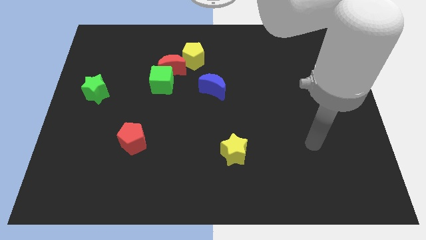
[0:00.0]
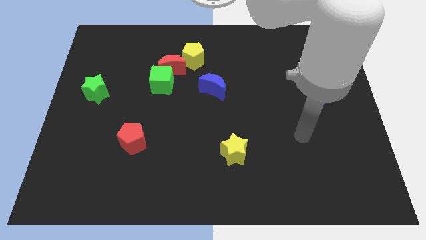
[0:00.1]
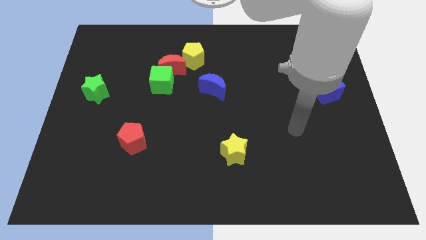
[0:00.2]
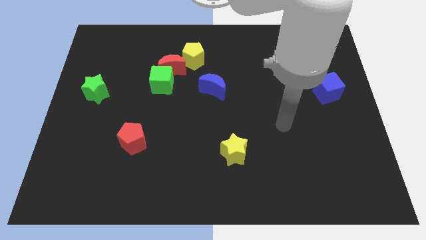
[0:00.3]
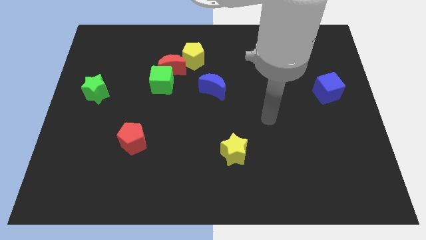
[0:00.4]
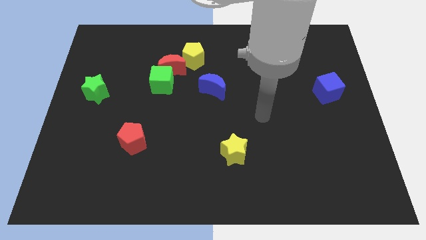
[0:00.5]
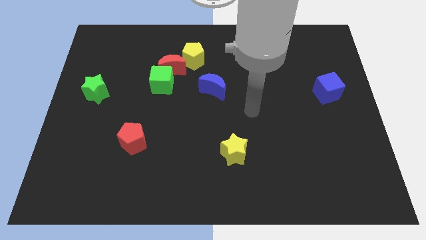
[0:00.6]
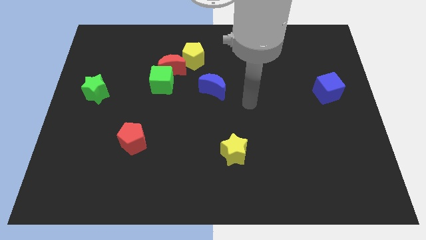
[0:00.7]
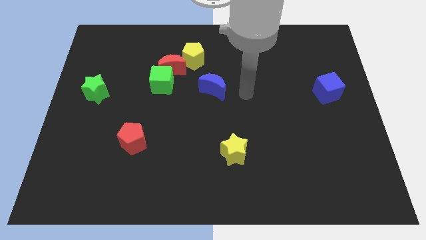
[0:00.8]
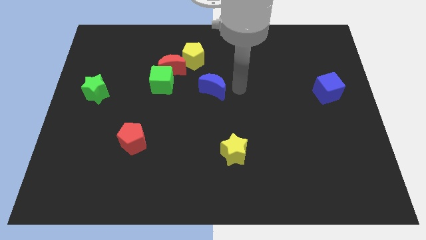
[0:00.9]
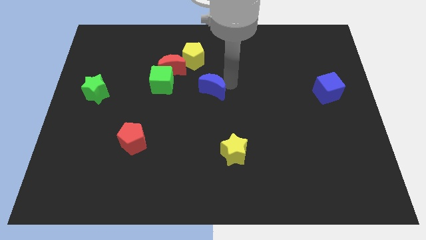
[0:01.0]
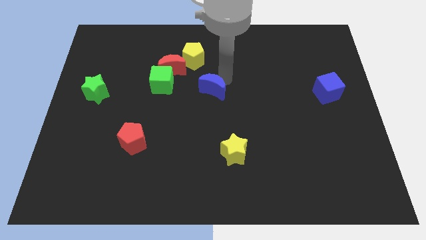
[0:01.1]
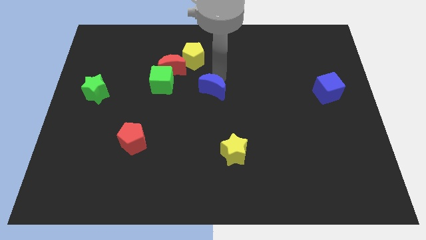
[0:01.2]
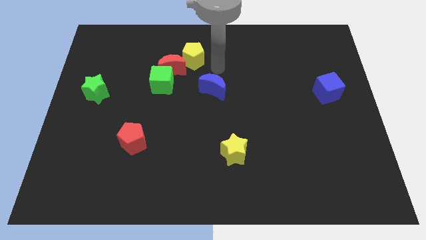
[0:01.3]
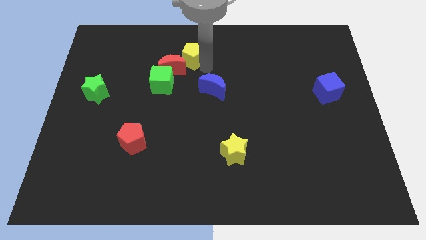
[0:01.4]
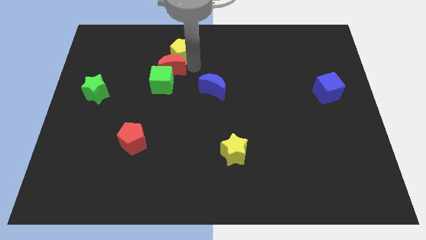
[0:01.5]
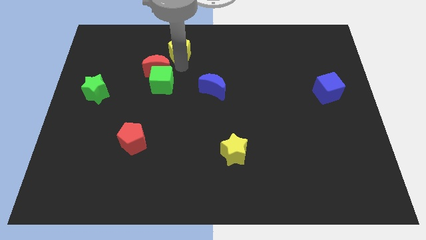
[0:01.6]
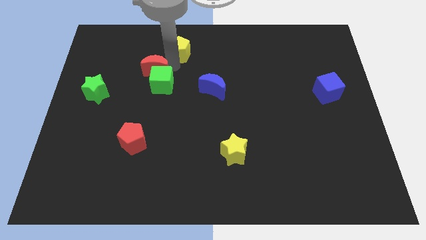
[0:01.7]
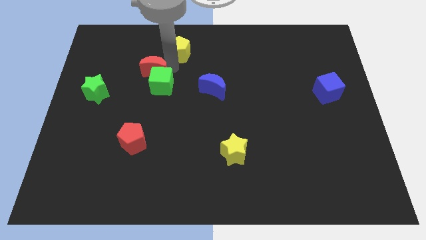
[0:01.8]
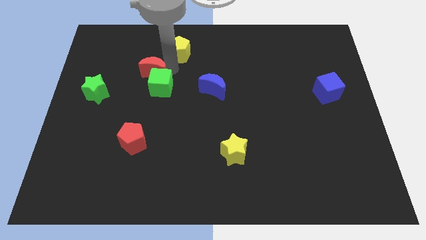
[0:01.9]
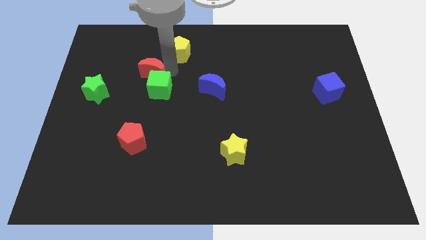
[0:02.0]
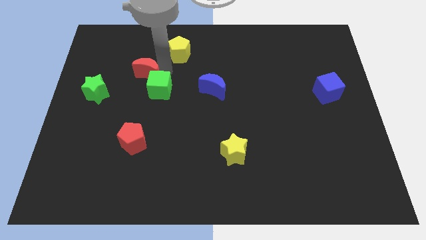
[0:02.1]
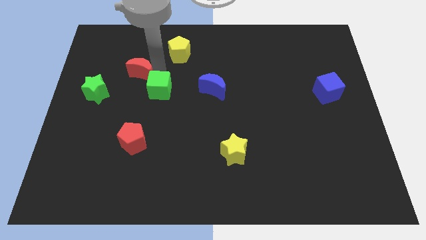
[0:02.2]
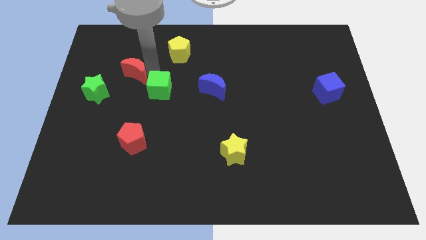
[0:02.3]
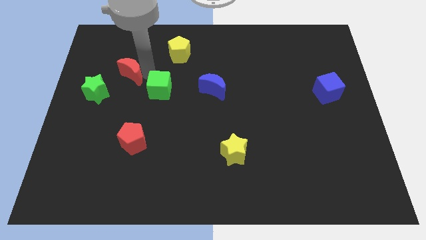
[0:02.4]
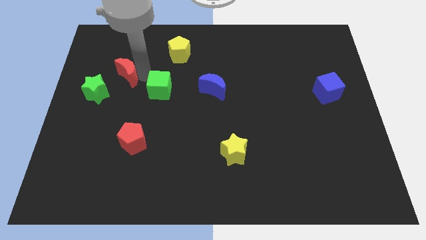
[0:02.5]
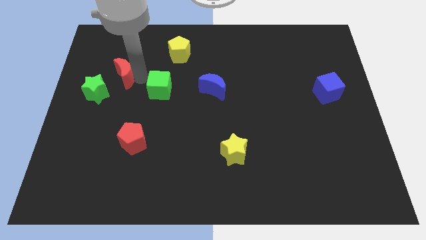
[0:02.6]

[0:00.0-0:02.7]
move the green cube away from the red moon

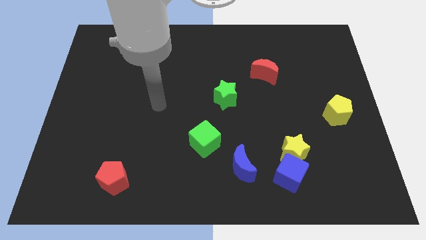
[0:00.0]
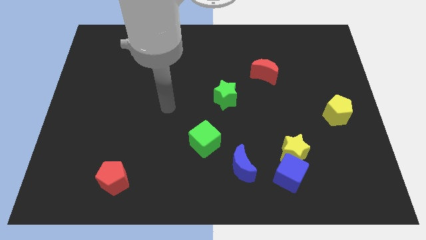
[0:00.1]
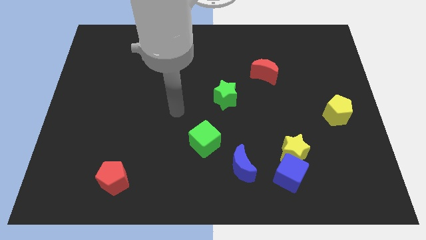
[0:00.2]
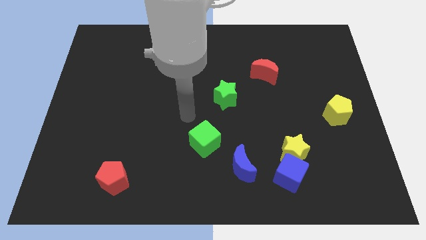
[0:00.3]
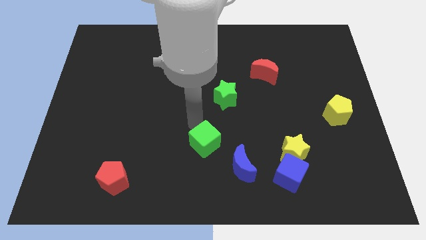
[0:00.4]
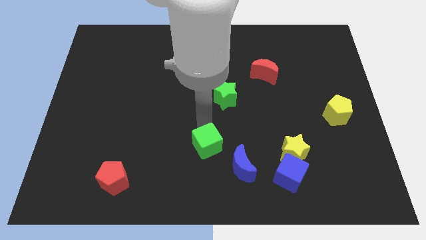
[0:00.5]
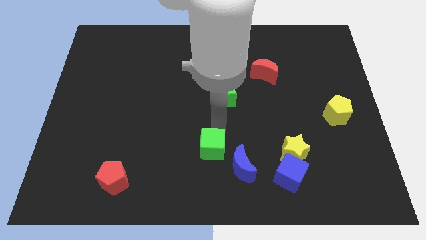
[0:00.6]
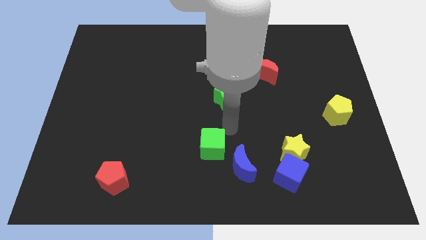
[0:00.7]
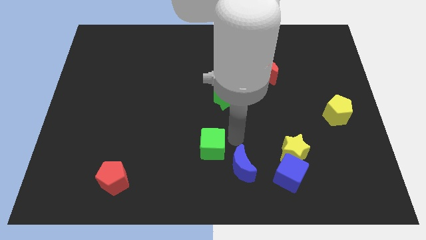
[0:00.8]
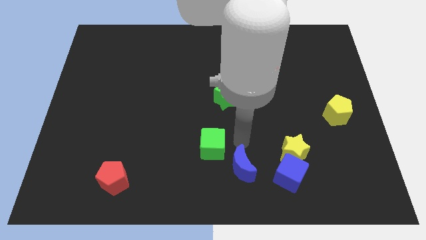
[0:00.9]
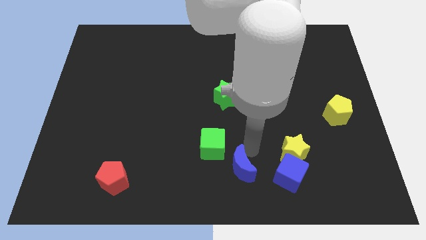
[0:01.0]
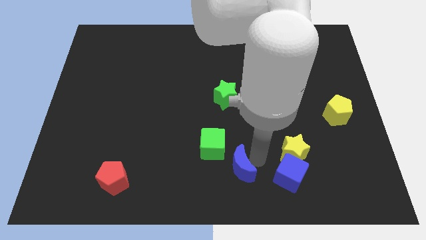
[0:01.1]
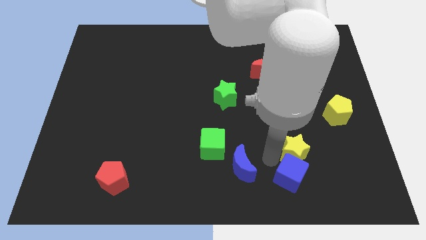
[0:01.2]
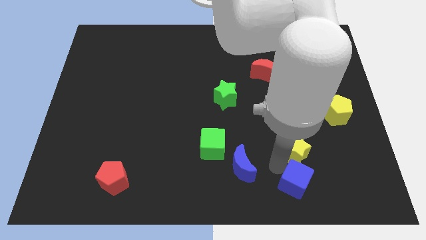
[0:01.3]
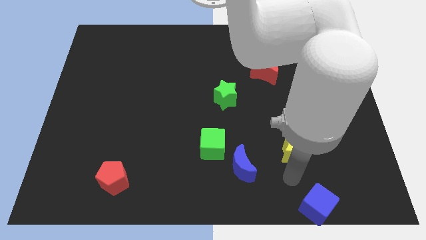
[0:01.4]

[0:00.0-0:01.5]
separate the yellow star from the blue cube

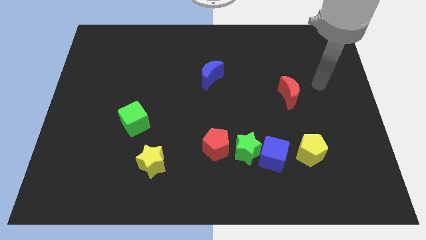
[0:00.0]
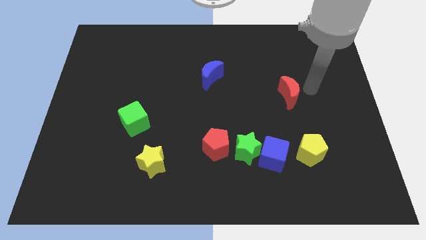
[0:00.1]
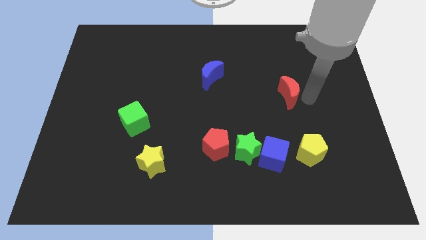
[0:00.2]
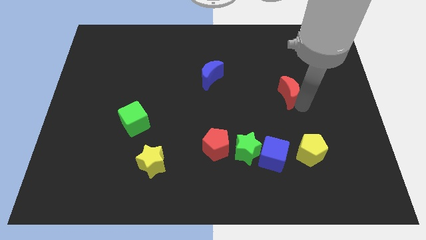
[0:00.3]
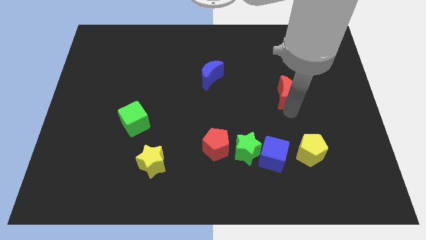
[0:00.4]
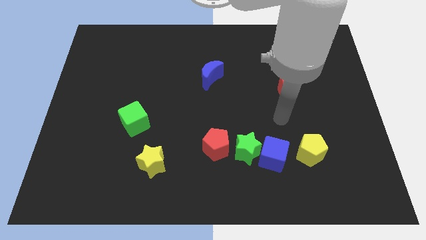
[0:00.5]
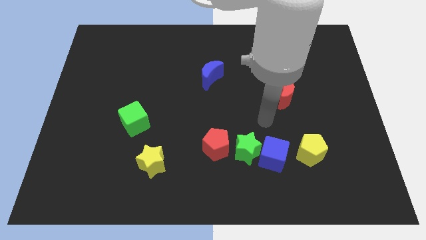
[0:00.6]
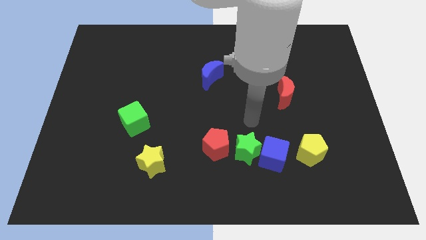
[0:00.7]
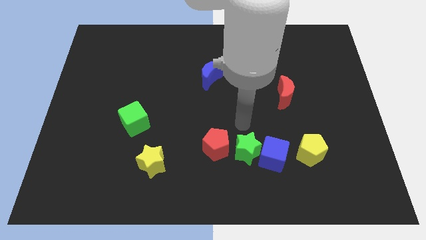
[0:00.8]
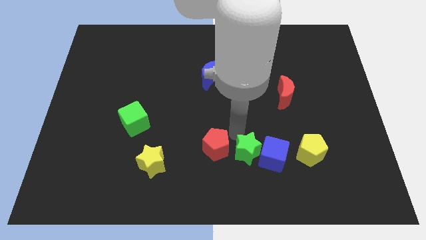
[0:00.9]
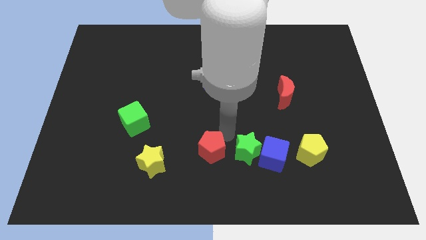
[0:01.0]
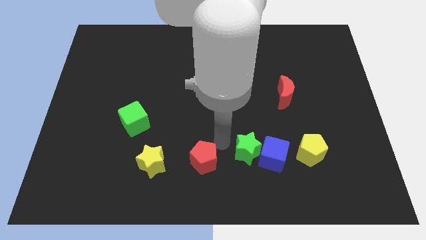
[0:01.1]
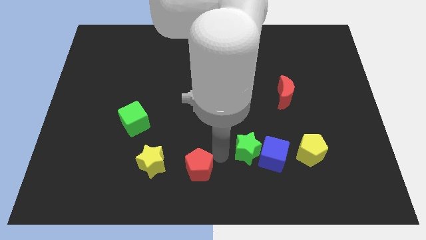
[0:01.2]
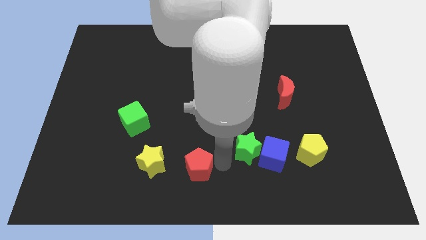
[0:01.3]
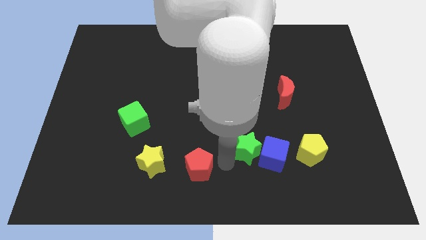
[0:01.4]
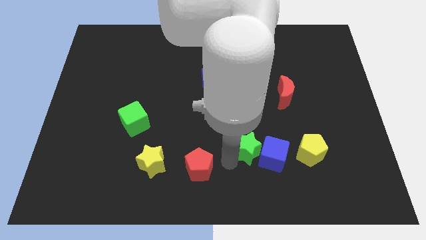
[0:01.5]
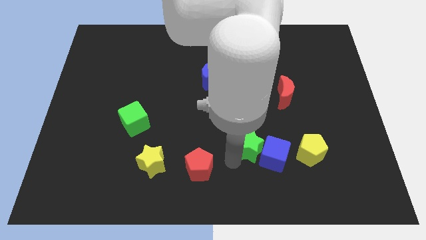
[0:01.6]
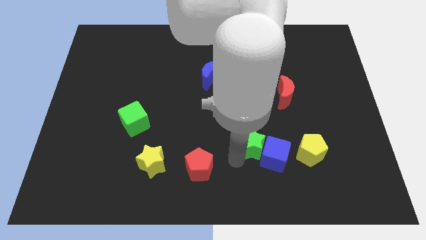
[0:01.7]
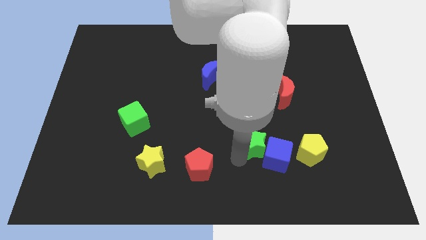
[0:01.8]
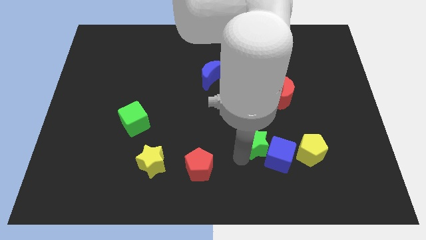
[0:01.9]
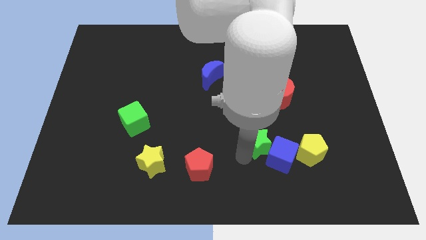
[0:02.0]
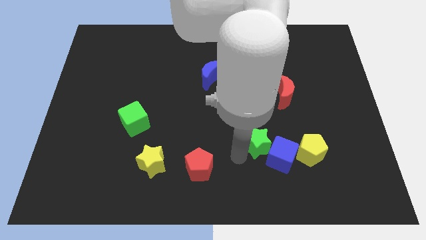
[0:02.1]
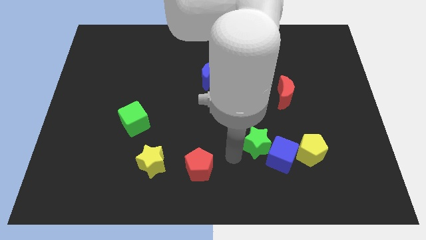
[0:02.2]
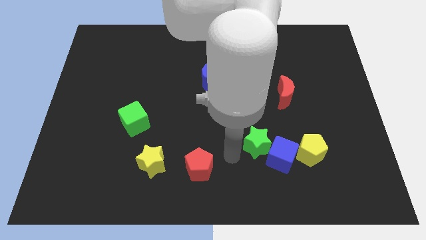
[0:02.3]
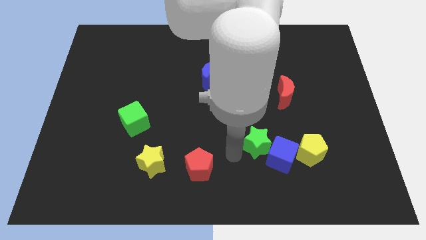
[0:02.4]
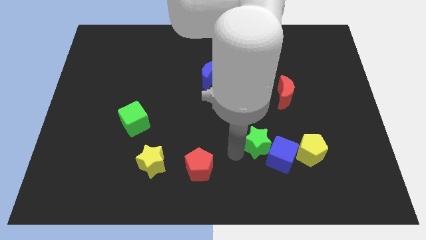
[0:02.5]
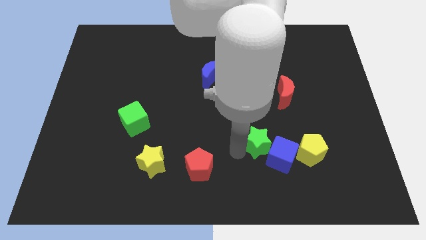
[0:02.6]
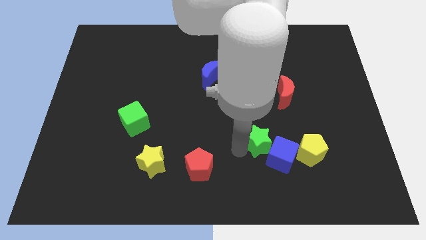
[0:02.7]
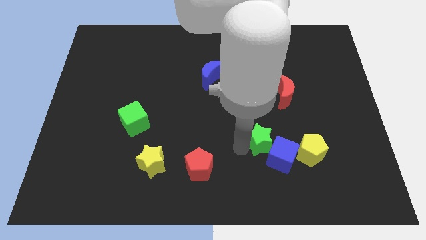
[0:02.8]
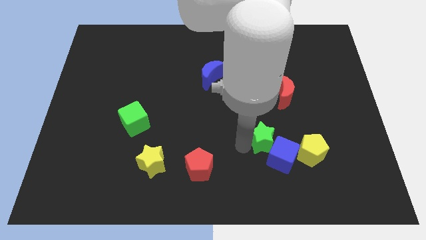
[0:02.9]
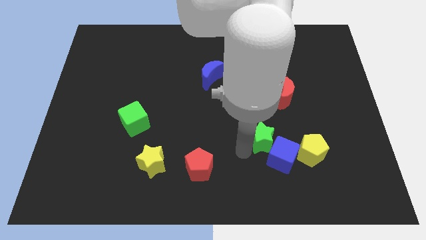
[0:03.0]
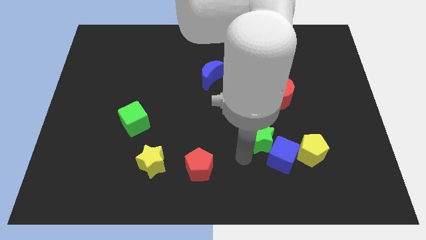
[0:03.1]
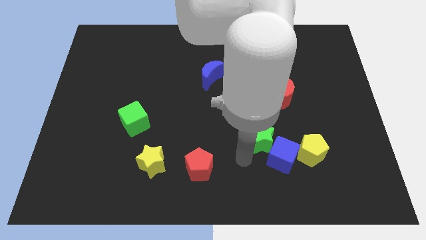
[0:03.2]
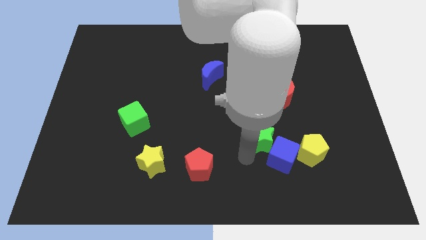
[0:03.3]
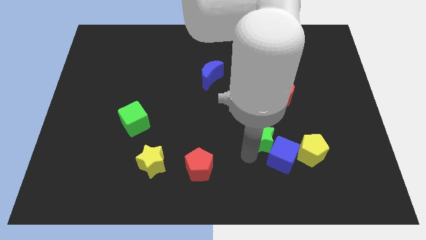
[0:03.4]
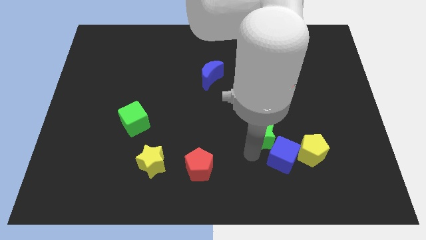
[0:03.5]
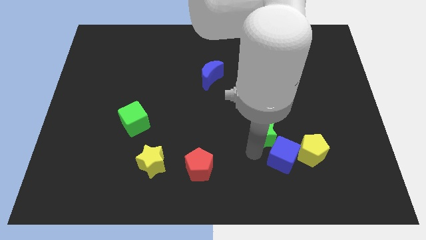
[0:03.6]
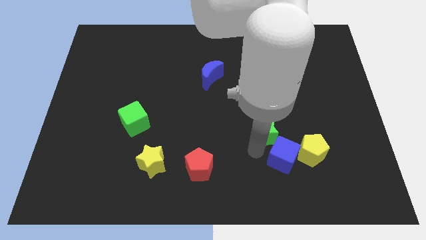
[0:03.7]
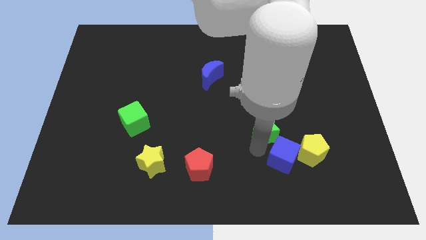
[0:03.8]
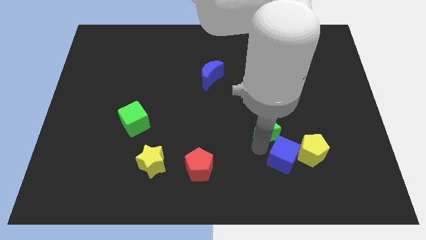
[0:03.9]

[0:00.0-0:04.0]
move the green star away from the blue cube and red pentagon

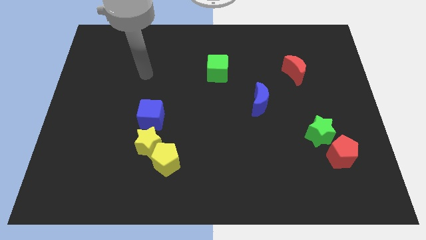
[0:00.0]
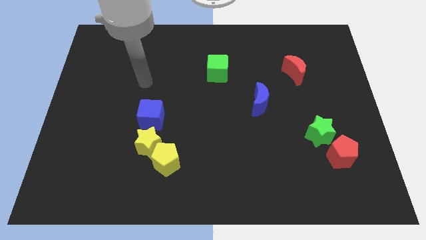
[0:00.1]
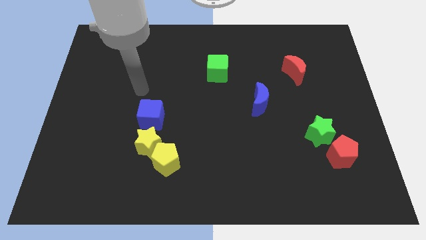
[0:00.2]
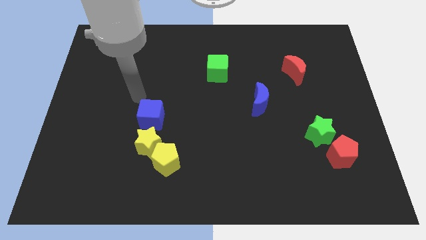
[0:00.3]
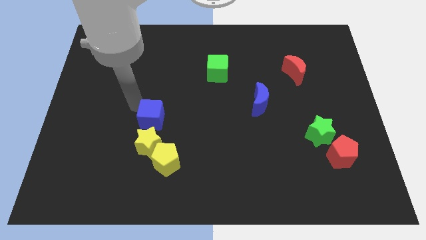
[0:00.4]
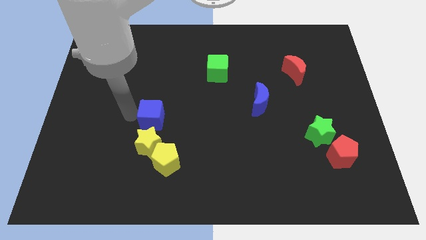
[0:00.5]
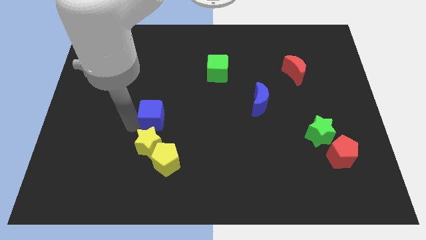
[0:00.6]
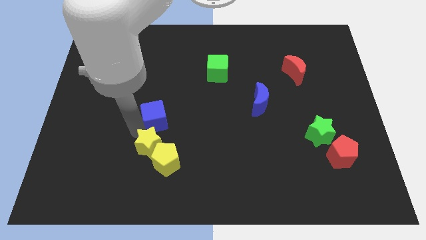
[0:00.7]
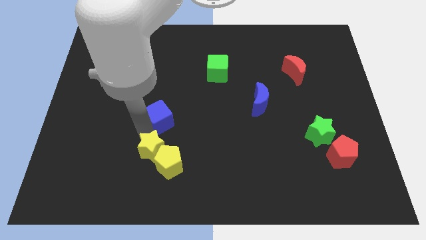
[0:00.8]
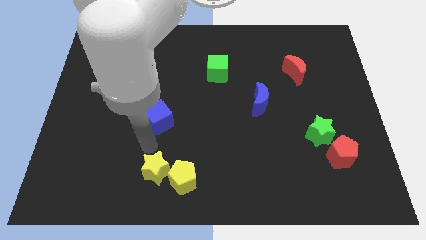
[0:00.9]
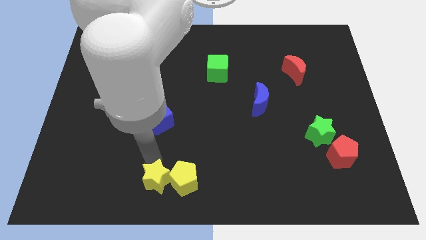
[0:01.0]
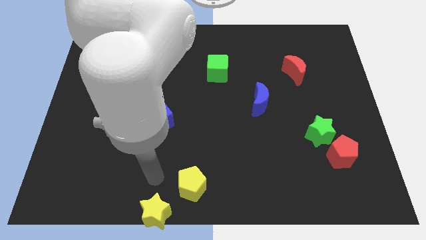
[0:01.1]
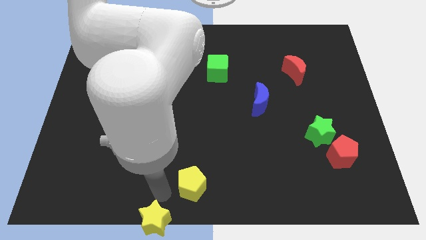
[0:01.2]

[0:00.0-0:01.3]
pull the yellow pentagon apart from the yellow star
